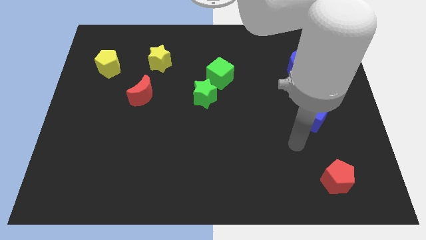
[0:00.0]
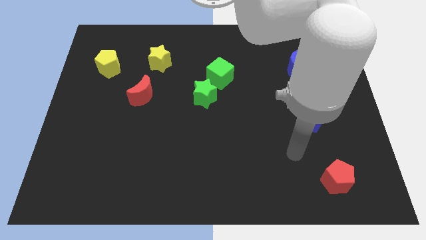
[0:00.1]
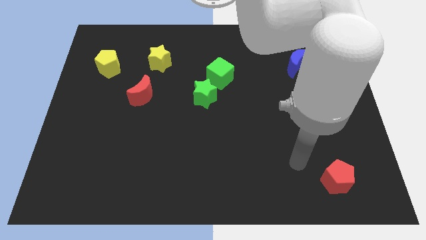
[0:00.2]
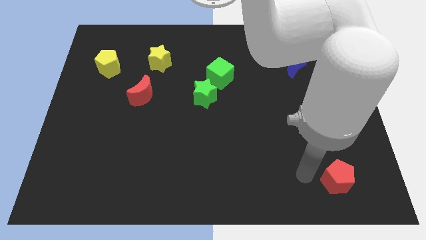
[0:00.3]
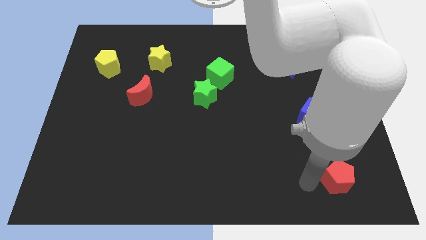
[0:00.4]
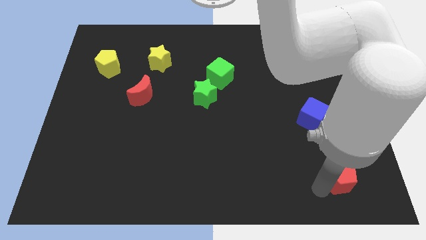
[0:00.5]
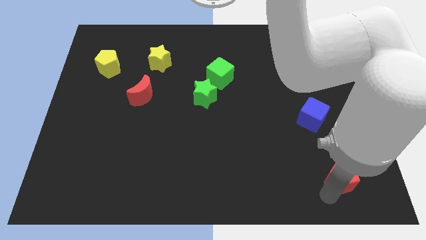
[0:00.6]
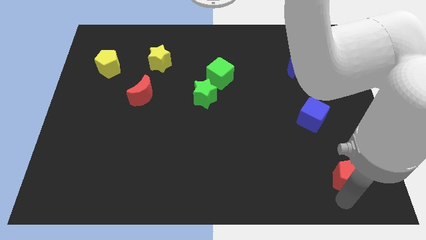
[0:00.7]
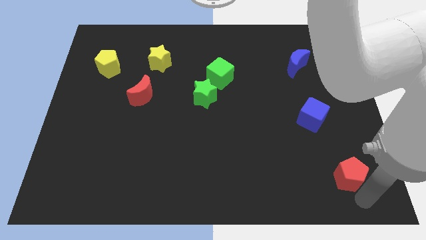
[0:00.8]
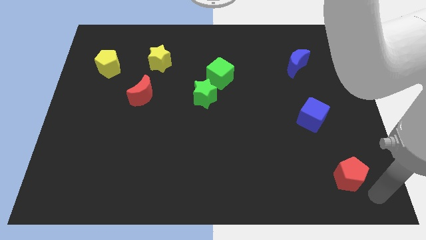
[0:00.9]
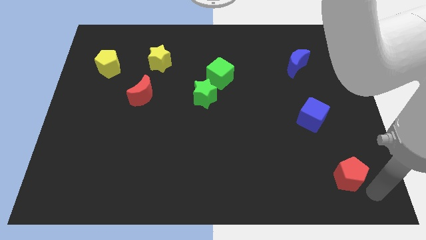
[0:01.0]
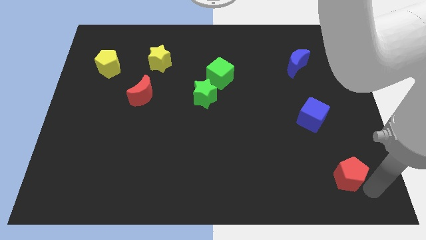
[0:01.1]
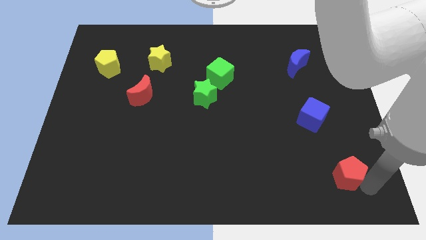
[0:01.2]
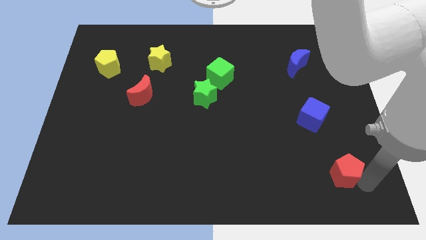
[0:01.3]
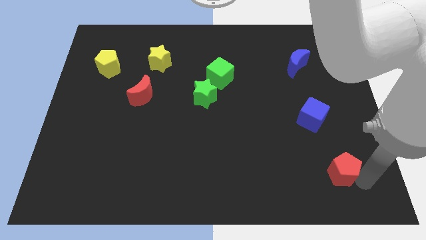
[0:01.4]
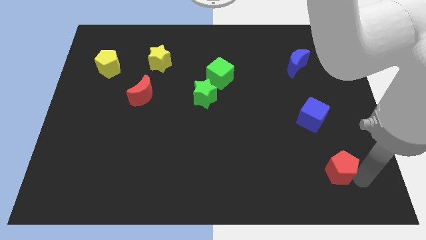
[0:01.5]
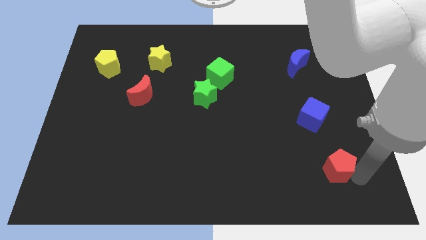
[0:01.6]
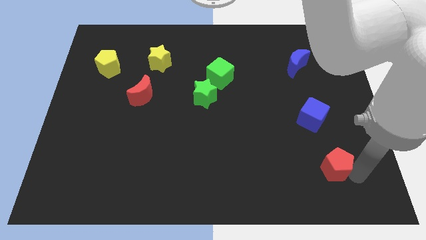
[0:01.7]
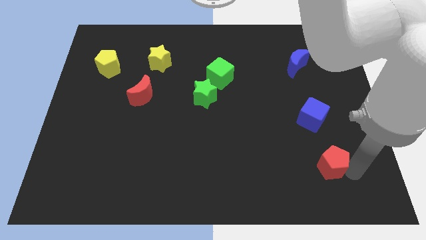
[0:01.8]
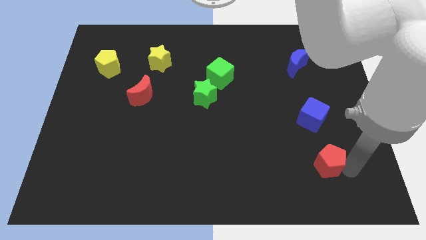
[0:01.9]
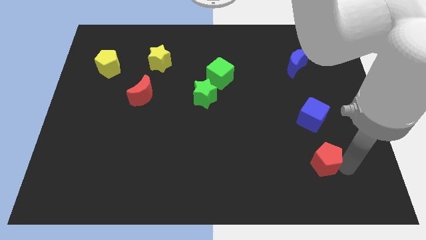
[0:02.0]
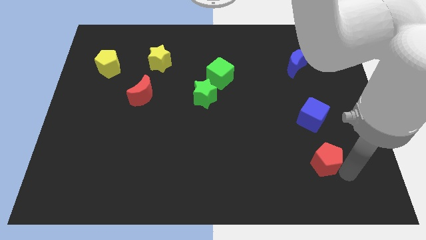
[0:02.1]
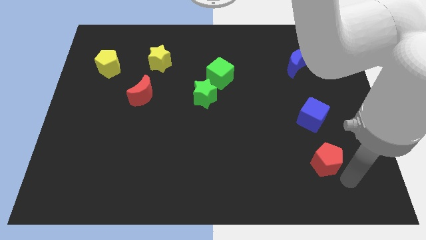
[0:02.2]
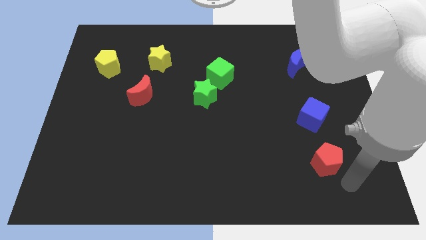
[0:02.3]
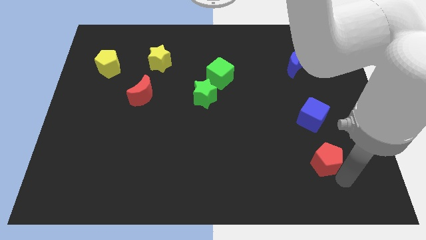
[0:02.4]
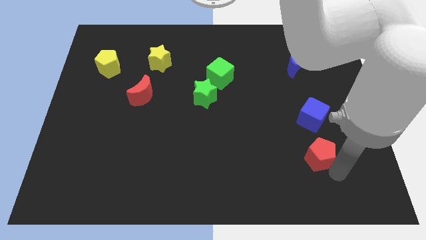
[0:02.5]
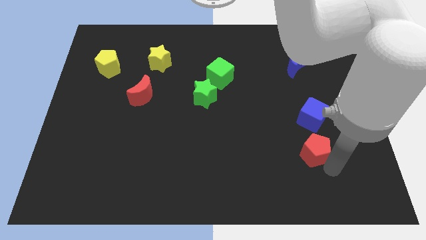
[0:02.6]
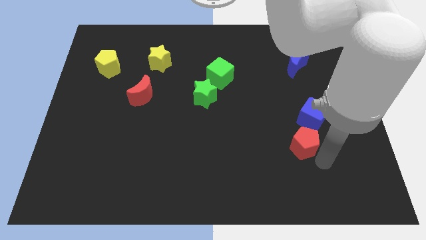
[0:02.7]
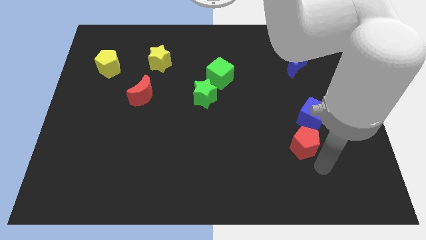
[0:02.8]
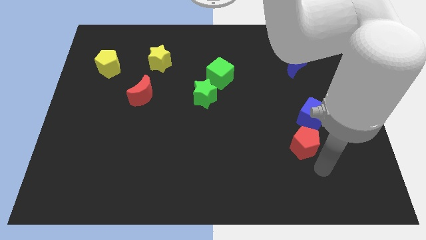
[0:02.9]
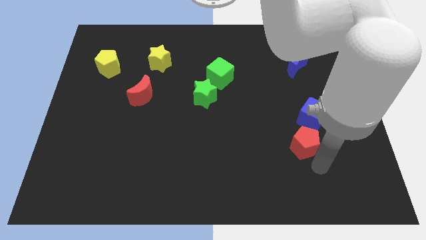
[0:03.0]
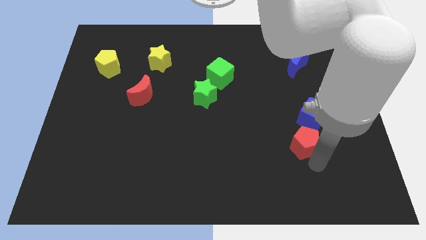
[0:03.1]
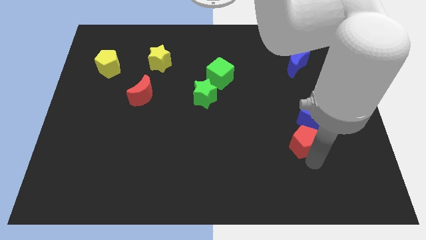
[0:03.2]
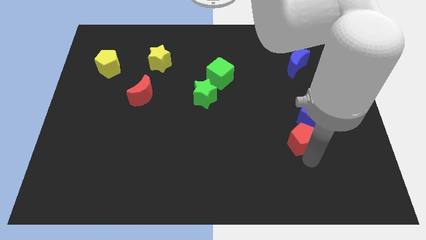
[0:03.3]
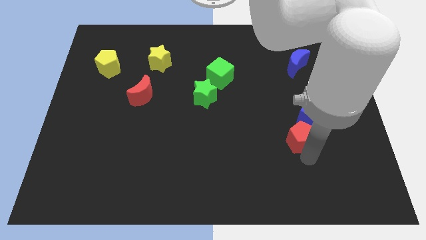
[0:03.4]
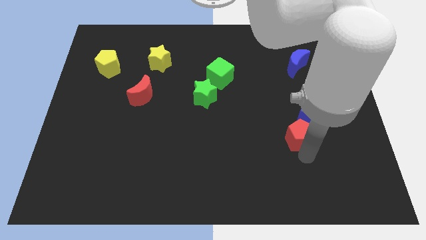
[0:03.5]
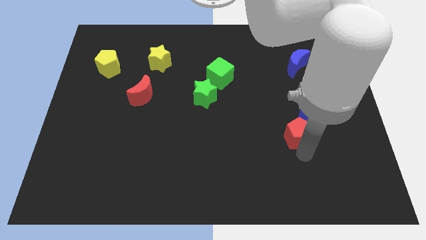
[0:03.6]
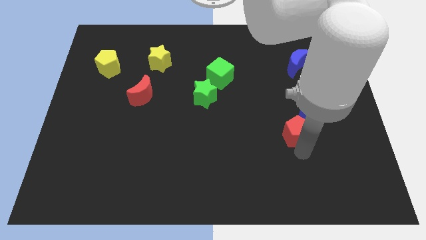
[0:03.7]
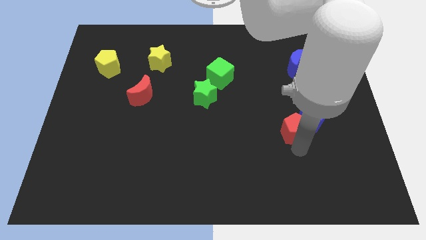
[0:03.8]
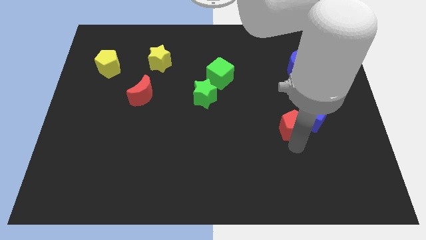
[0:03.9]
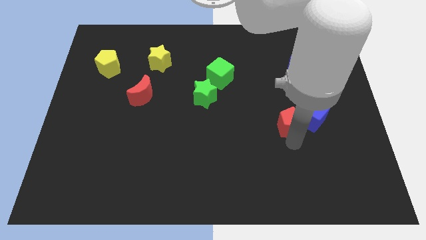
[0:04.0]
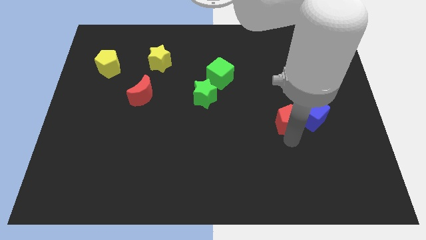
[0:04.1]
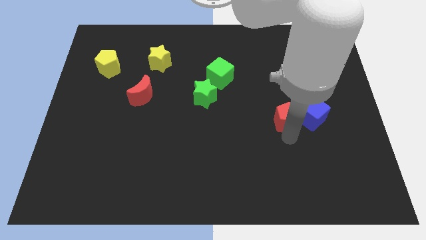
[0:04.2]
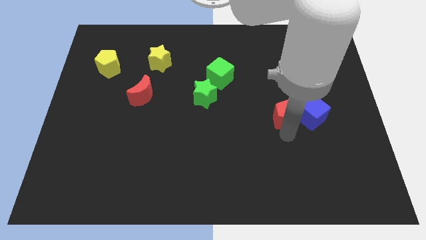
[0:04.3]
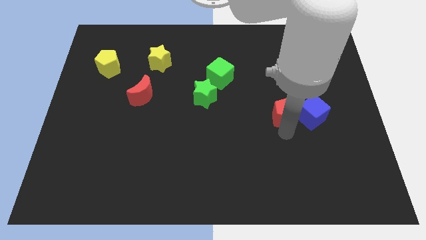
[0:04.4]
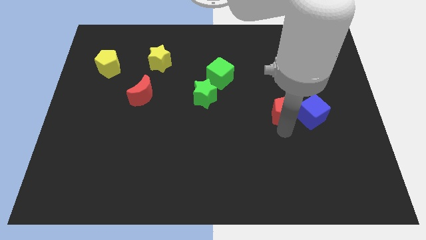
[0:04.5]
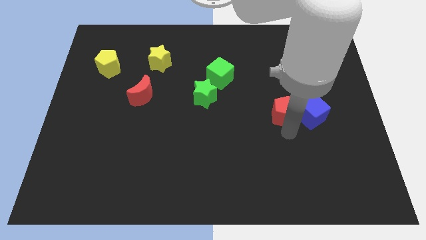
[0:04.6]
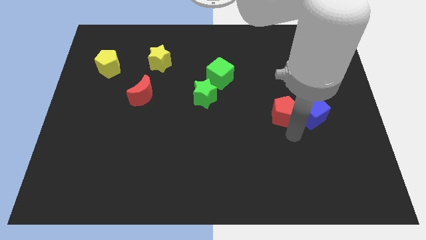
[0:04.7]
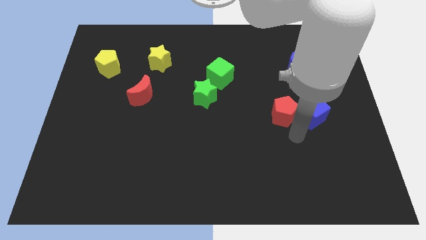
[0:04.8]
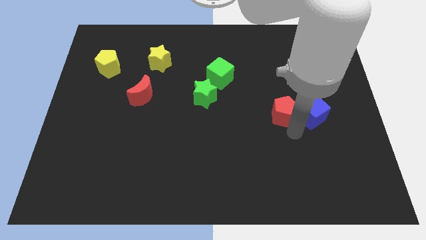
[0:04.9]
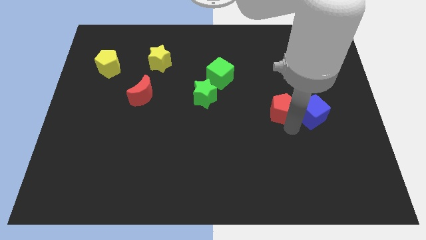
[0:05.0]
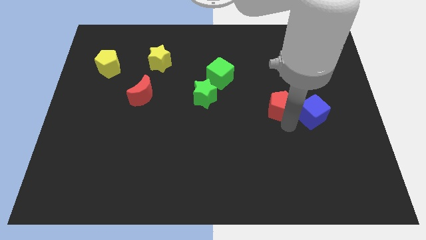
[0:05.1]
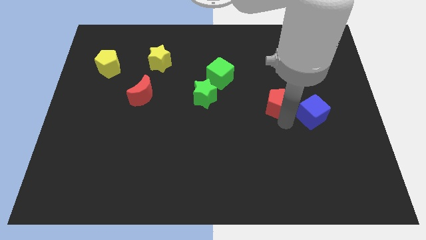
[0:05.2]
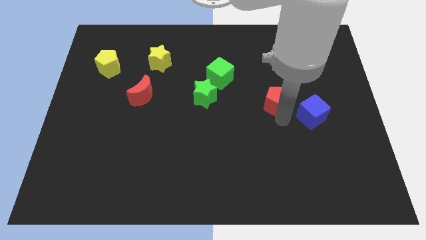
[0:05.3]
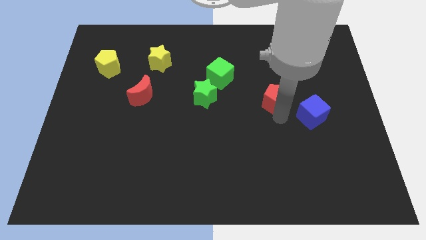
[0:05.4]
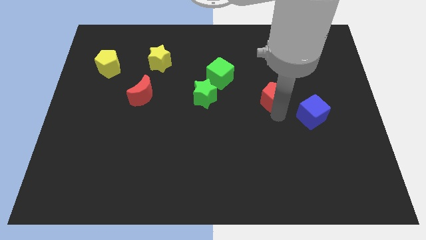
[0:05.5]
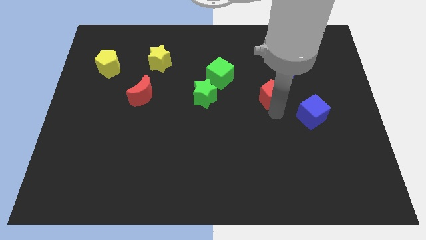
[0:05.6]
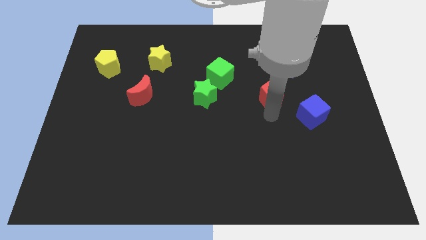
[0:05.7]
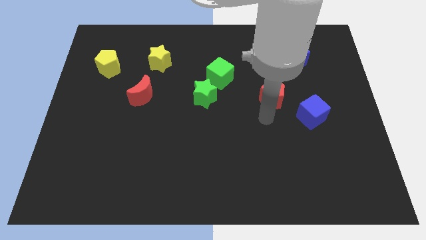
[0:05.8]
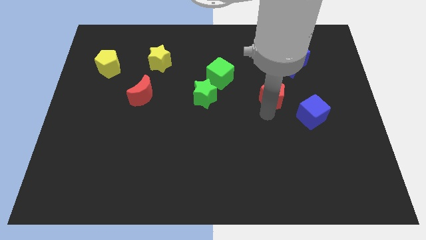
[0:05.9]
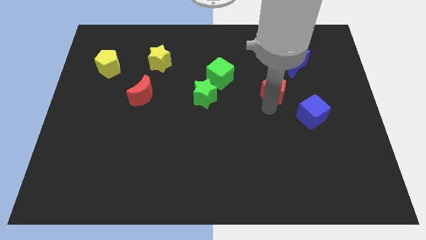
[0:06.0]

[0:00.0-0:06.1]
slide the red pentagon to the bottom left of the blue moon

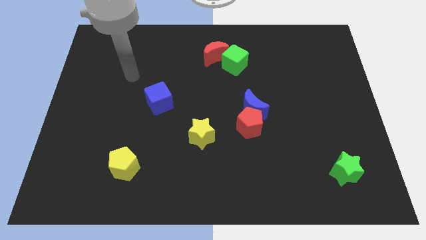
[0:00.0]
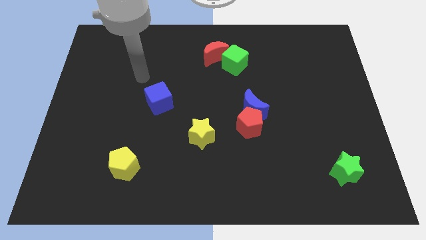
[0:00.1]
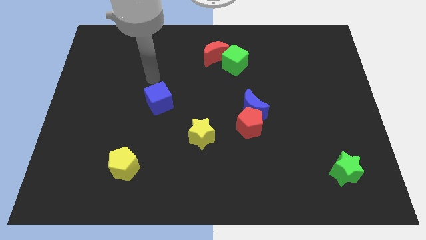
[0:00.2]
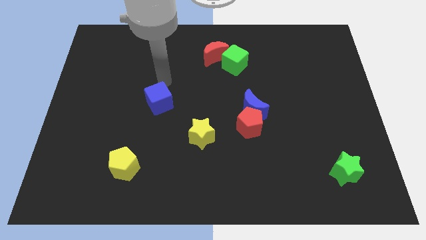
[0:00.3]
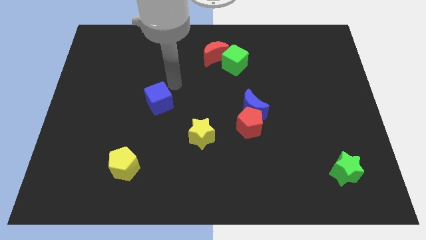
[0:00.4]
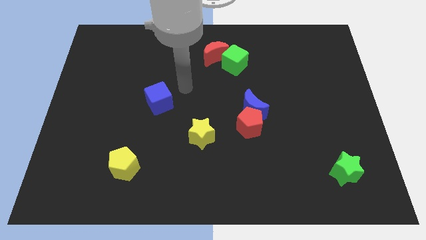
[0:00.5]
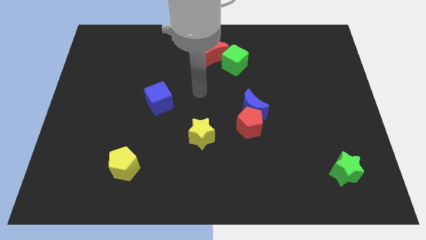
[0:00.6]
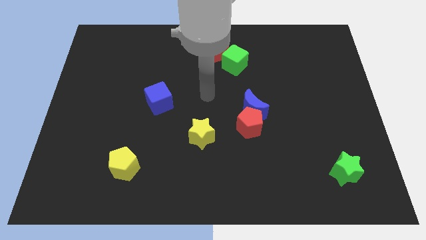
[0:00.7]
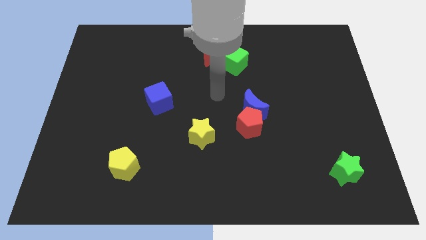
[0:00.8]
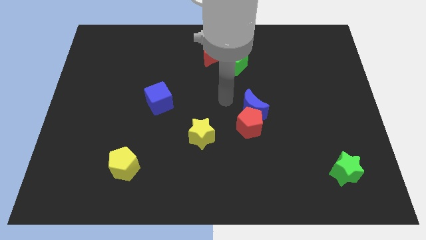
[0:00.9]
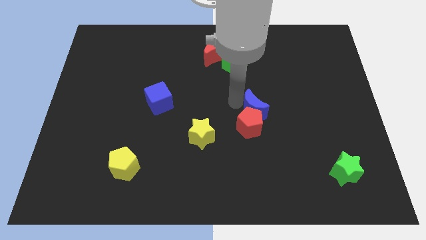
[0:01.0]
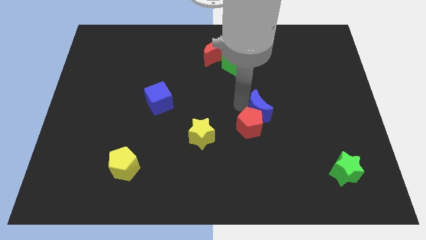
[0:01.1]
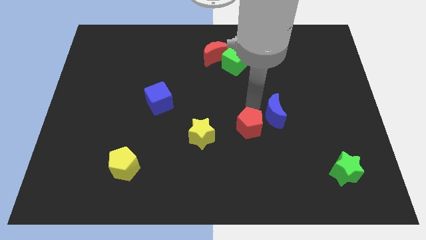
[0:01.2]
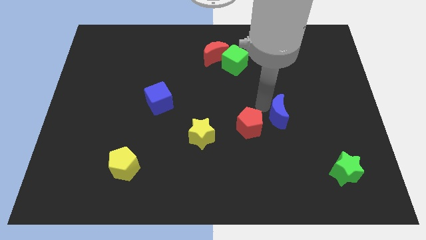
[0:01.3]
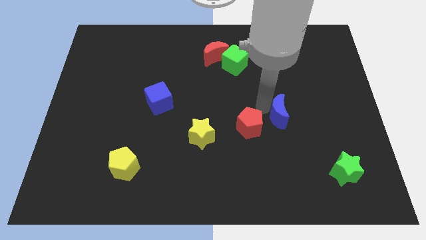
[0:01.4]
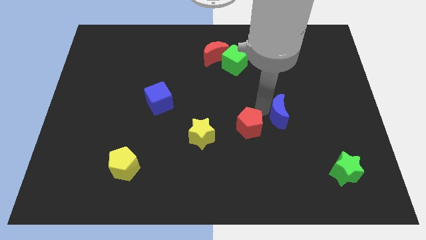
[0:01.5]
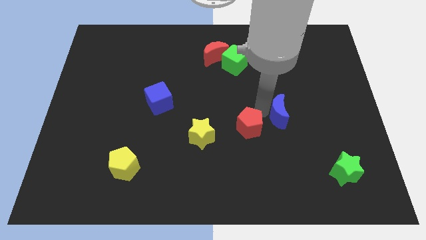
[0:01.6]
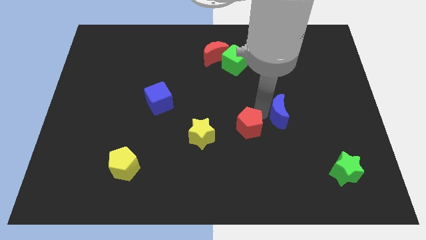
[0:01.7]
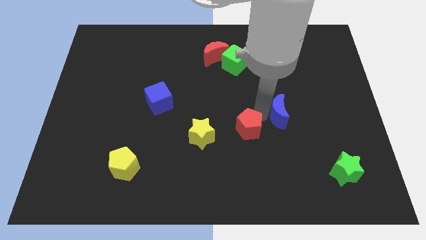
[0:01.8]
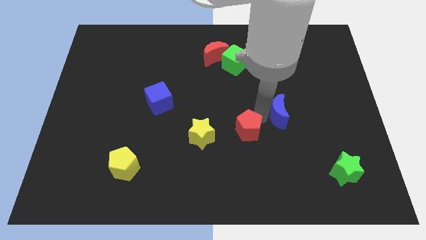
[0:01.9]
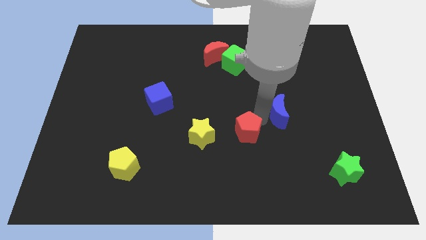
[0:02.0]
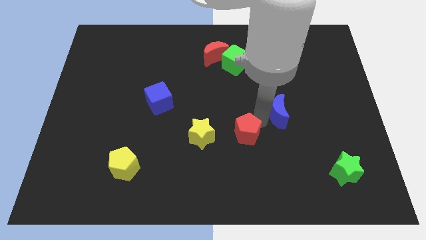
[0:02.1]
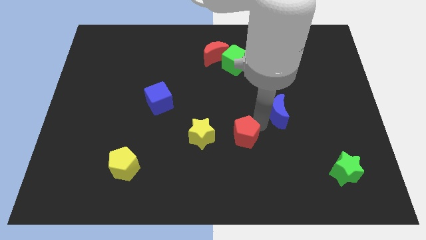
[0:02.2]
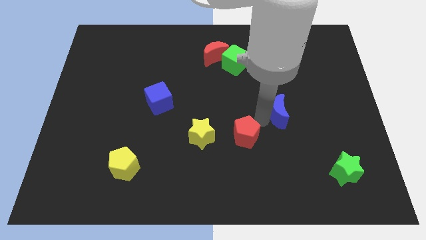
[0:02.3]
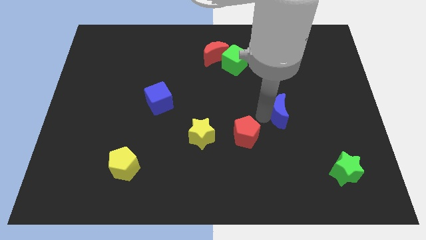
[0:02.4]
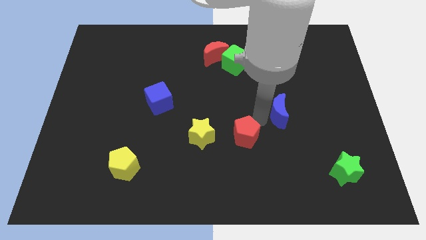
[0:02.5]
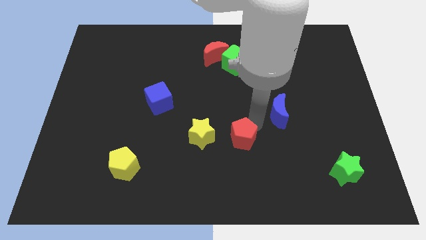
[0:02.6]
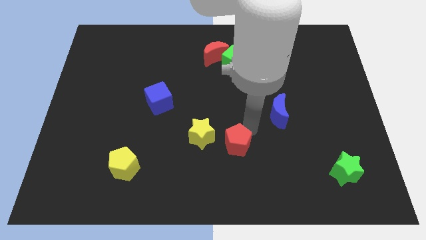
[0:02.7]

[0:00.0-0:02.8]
push the red pentagon to the bottom right of the yellow star
